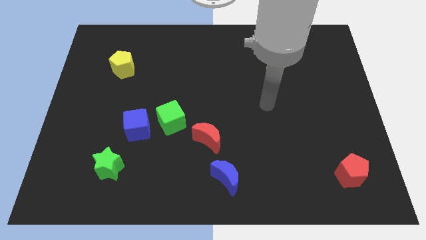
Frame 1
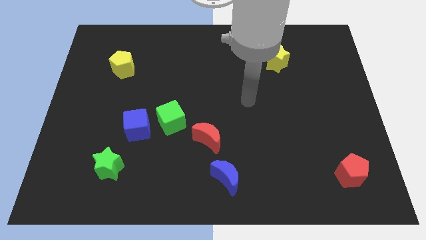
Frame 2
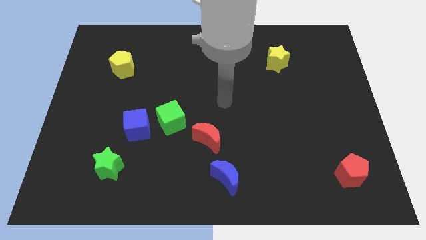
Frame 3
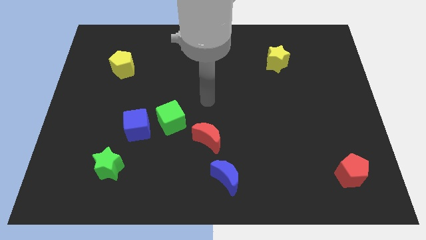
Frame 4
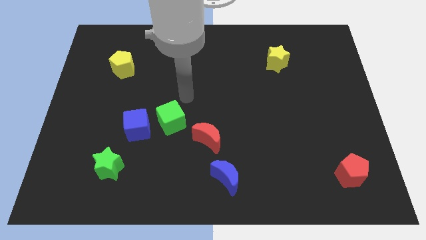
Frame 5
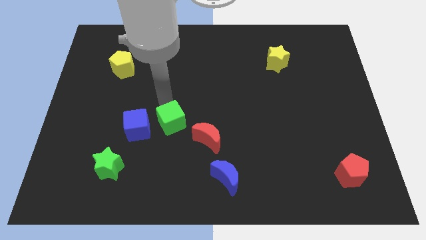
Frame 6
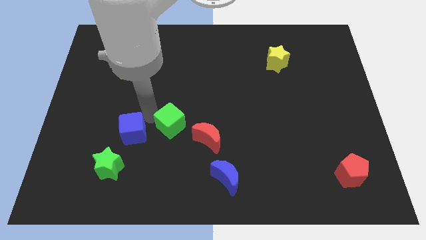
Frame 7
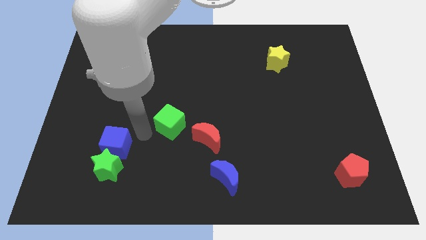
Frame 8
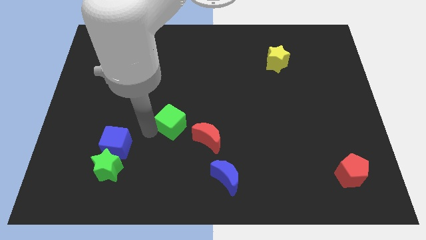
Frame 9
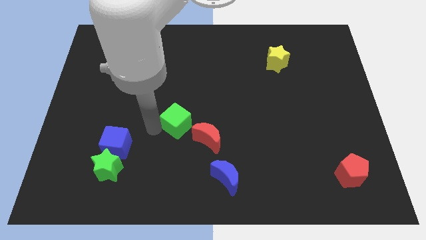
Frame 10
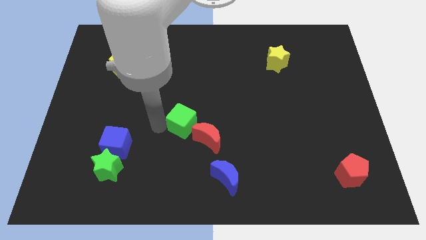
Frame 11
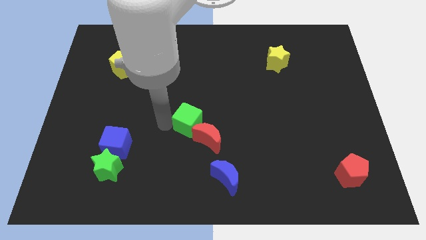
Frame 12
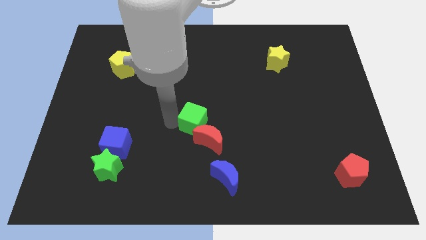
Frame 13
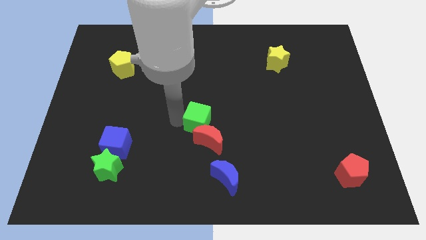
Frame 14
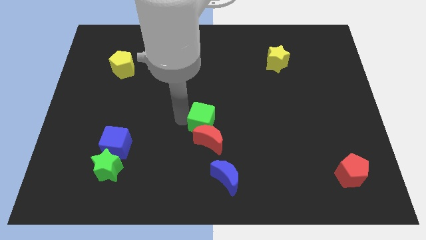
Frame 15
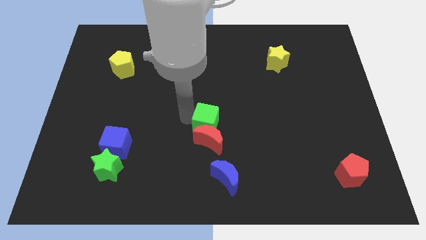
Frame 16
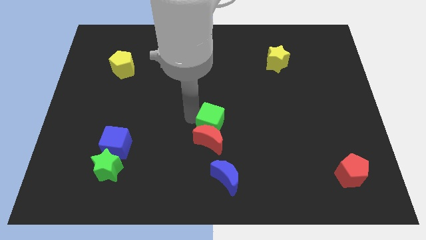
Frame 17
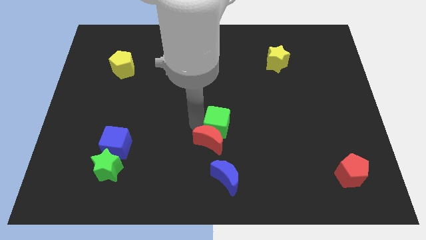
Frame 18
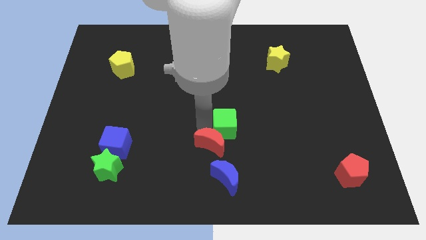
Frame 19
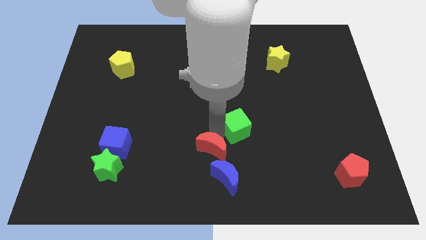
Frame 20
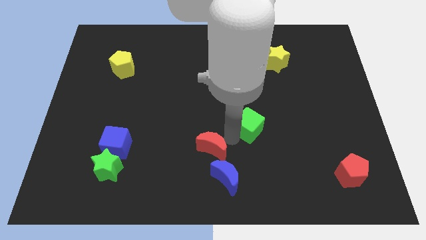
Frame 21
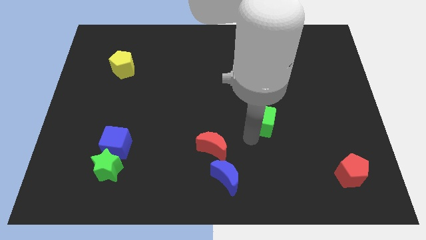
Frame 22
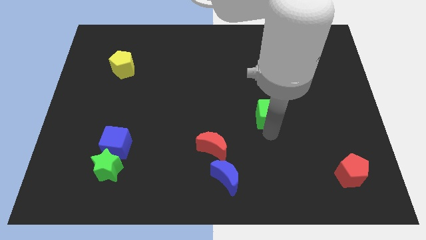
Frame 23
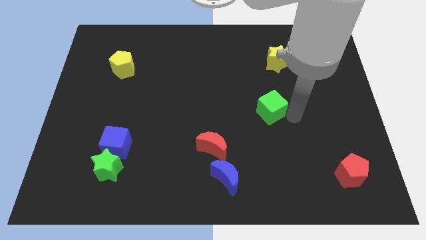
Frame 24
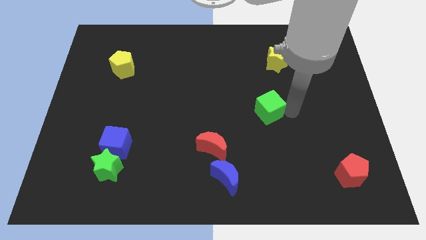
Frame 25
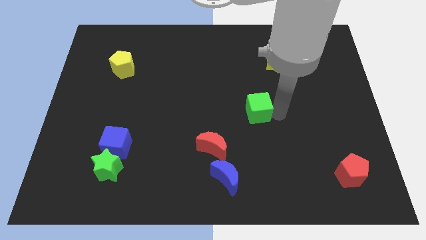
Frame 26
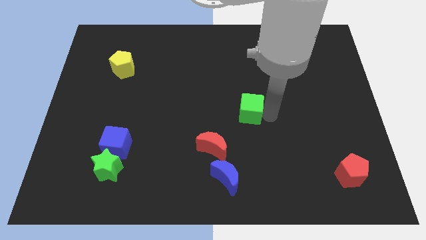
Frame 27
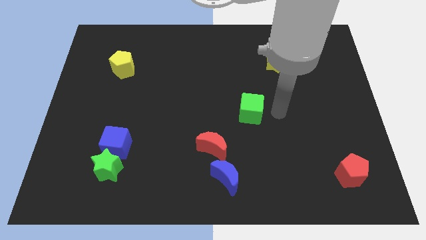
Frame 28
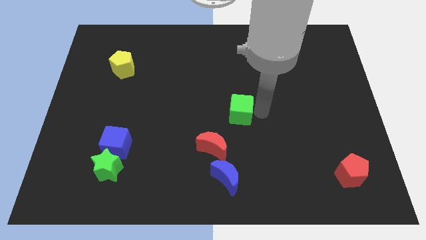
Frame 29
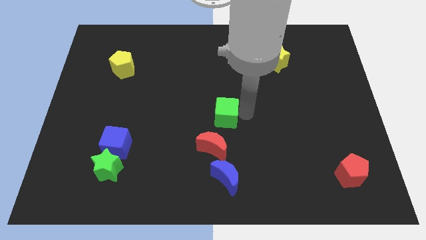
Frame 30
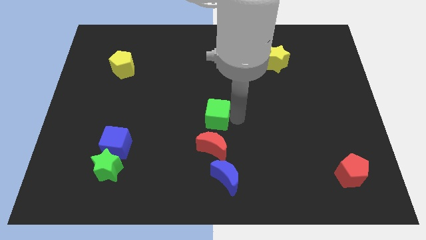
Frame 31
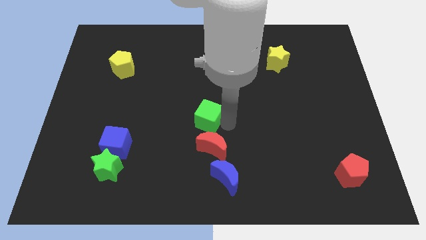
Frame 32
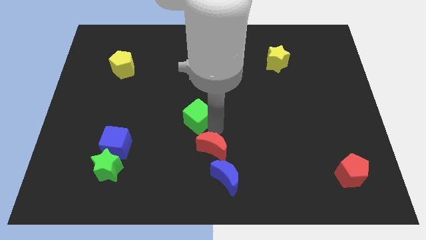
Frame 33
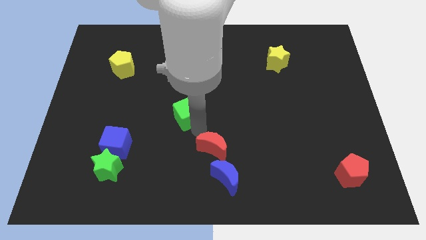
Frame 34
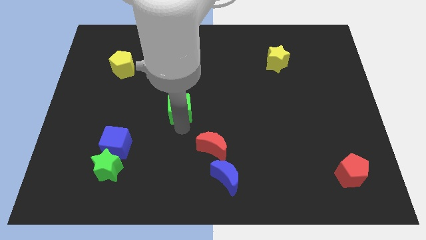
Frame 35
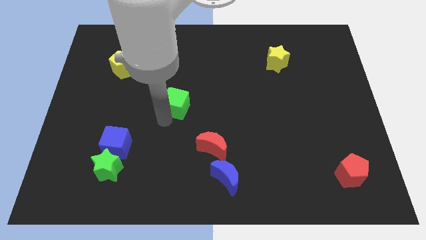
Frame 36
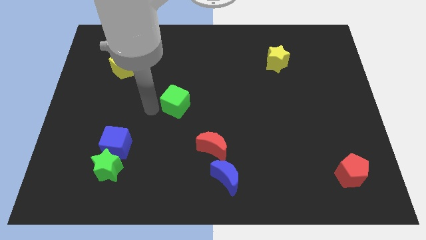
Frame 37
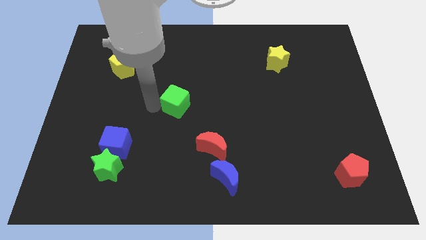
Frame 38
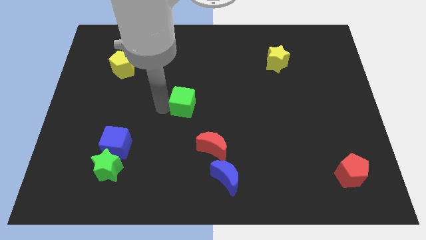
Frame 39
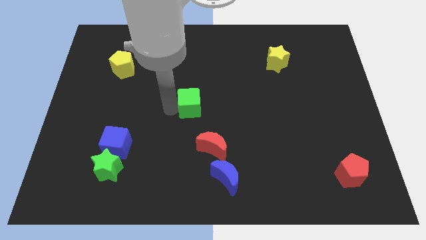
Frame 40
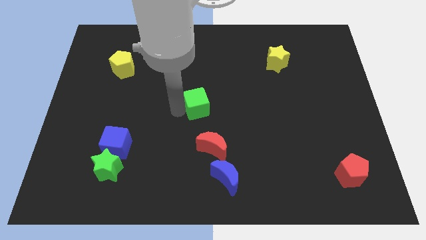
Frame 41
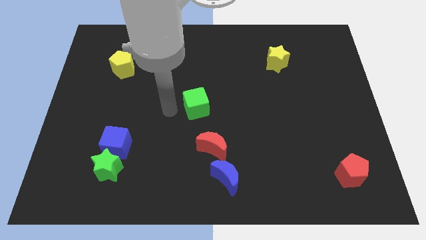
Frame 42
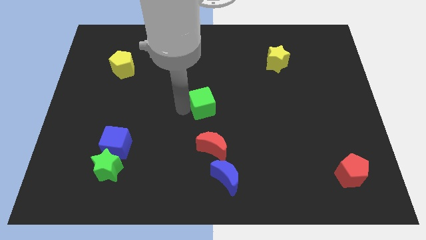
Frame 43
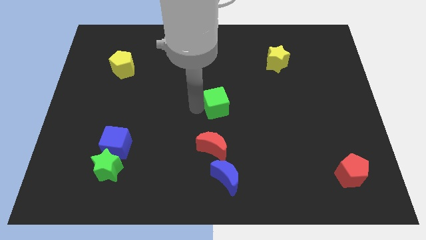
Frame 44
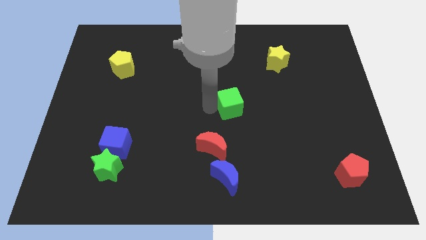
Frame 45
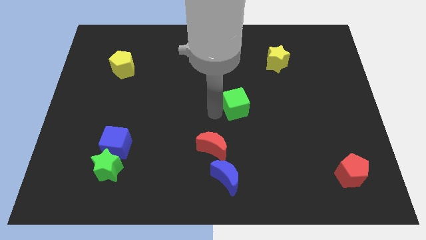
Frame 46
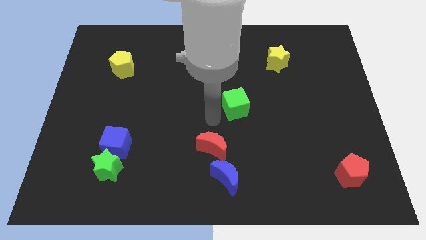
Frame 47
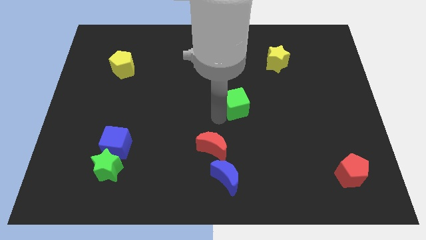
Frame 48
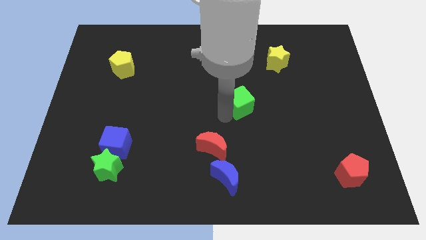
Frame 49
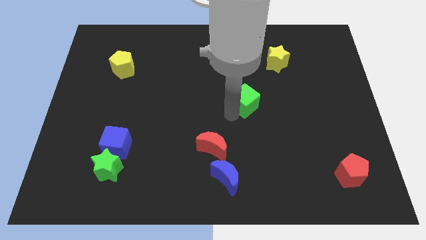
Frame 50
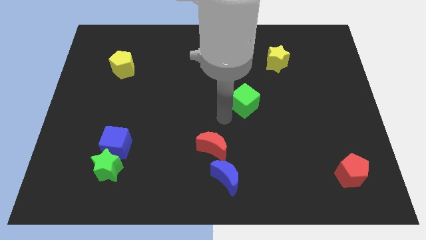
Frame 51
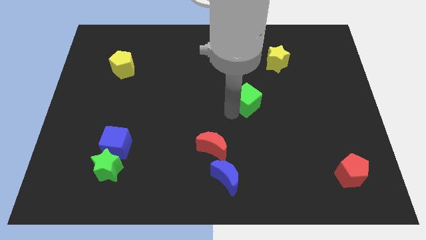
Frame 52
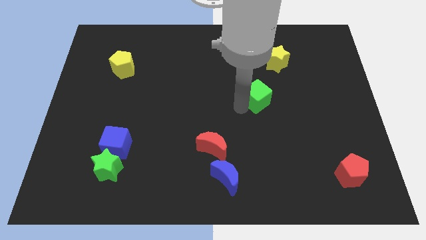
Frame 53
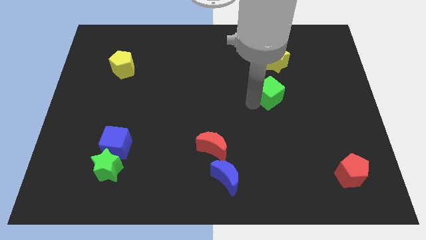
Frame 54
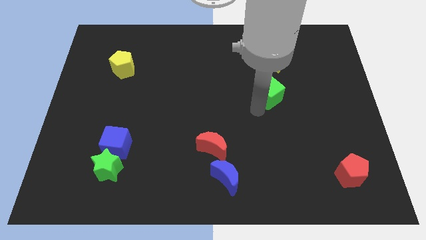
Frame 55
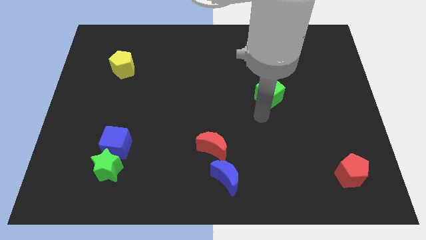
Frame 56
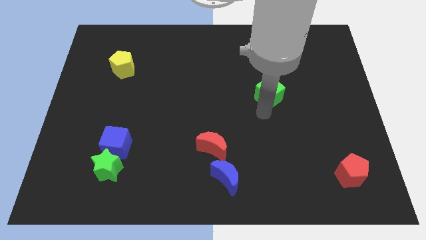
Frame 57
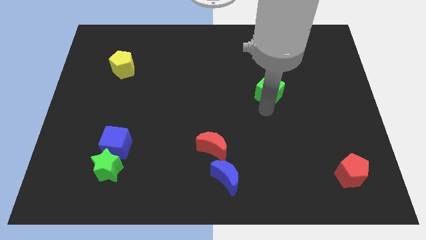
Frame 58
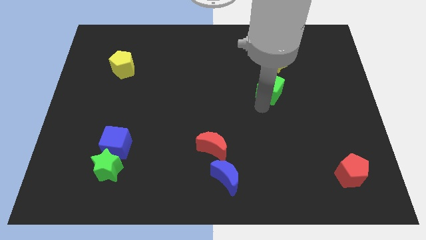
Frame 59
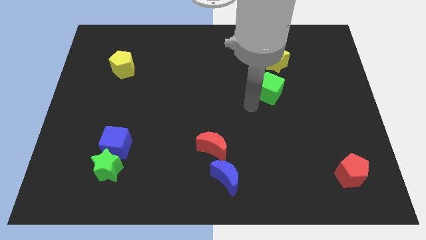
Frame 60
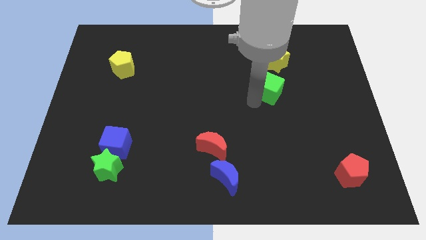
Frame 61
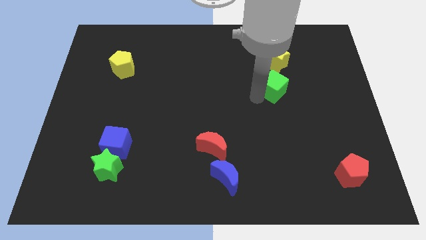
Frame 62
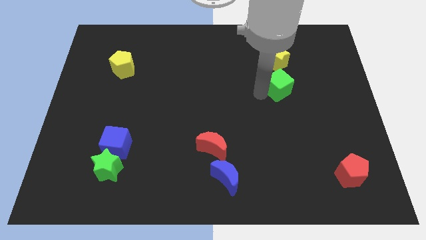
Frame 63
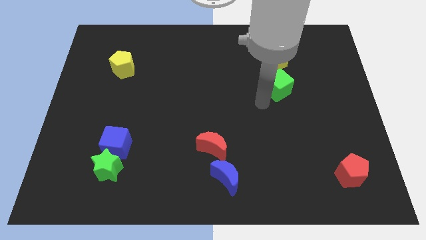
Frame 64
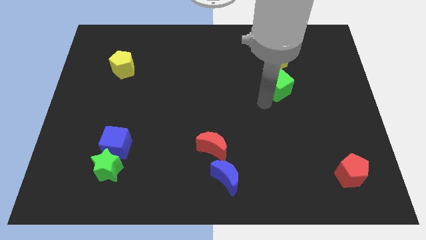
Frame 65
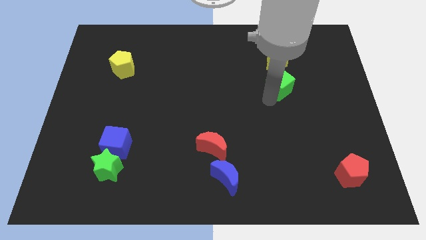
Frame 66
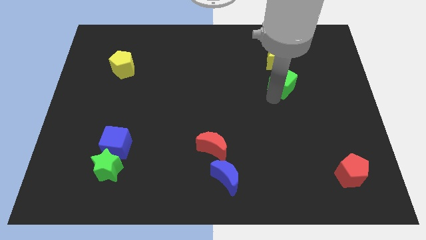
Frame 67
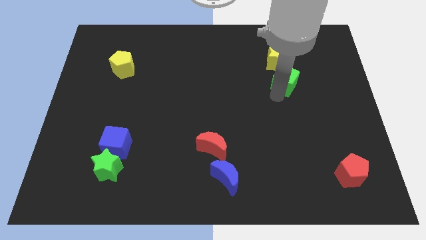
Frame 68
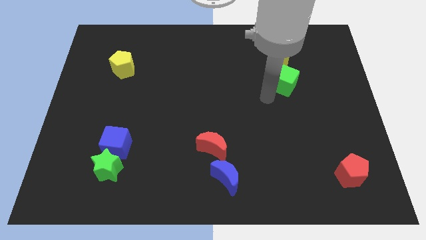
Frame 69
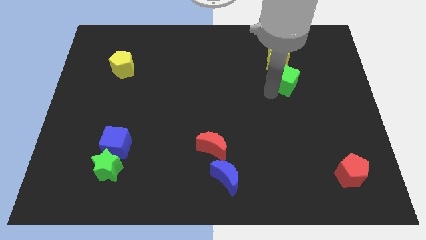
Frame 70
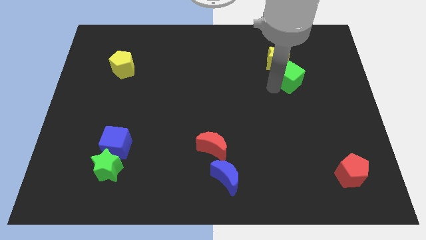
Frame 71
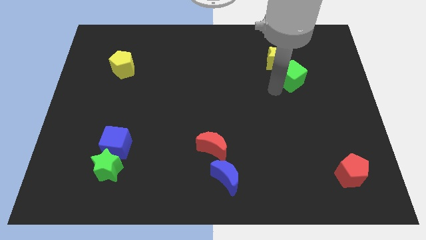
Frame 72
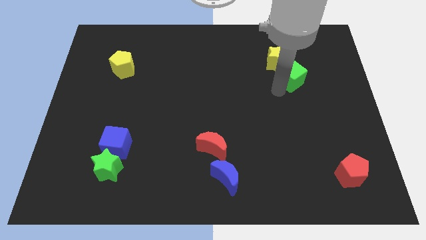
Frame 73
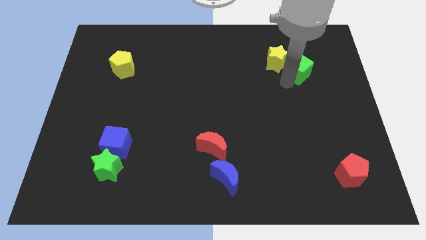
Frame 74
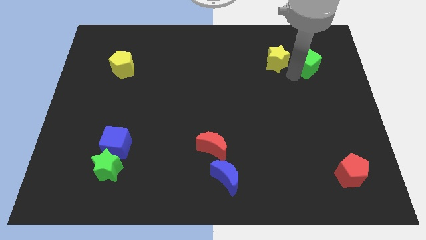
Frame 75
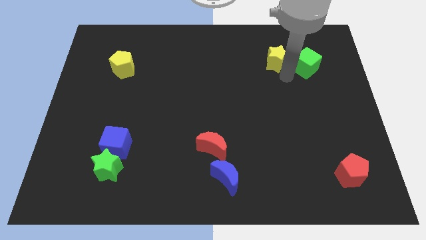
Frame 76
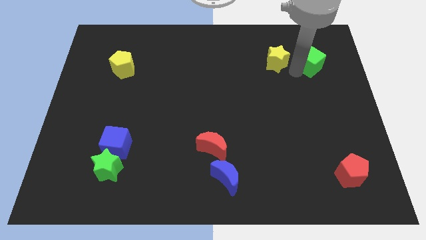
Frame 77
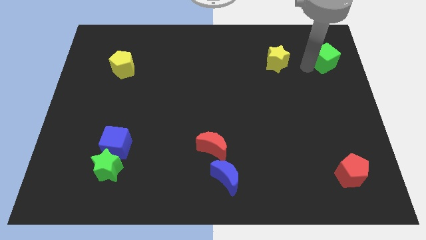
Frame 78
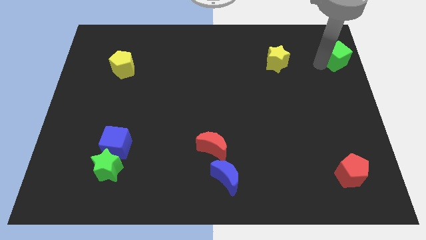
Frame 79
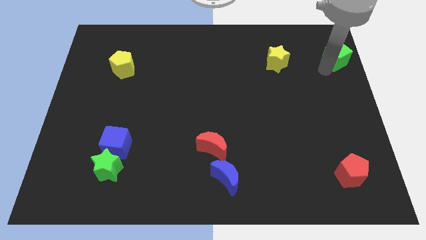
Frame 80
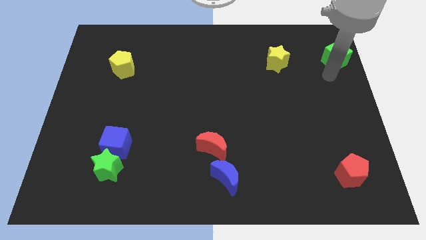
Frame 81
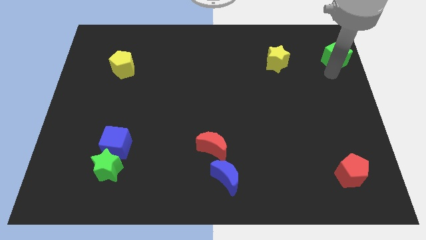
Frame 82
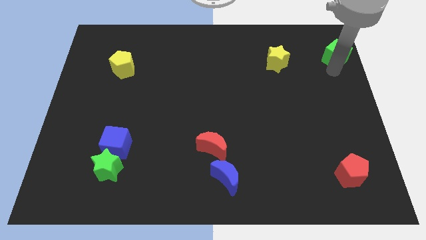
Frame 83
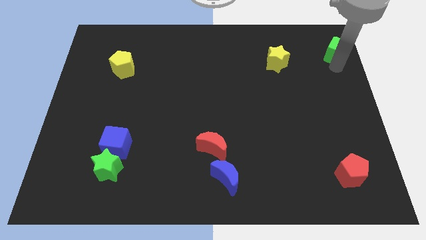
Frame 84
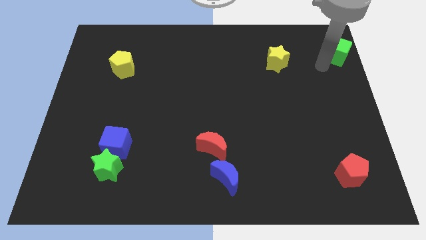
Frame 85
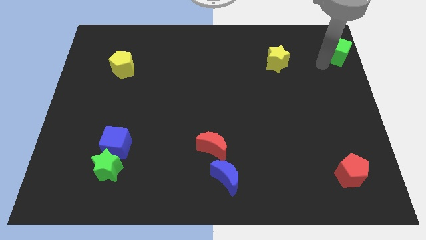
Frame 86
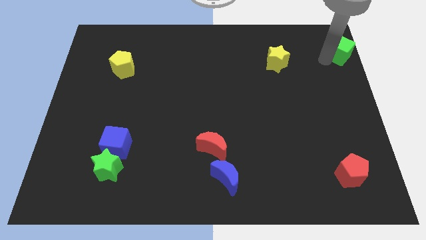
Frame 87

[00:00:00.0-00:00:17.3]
slide the green cube to the top right corner
